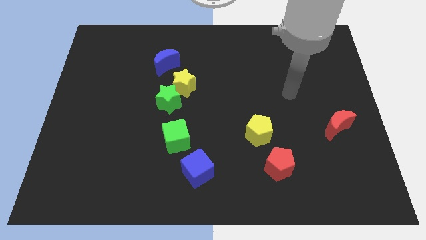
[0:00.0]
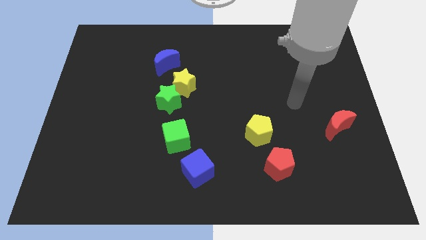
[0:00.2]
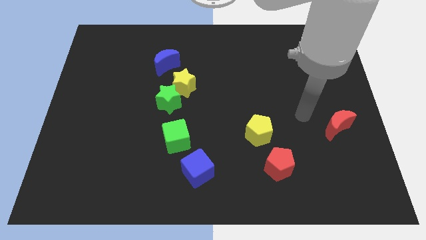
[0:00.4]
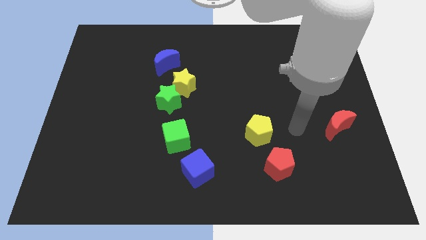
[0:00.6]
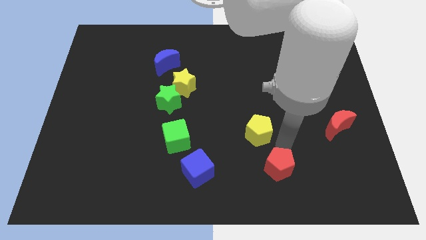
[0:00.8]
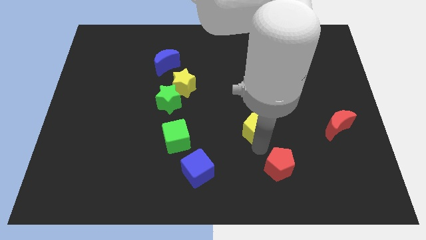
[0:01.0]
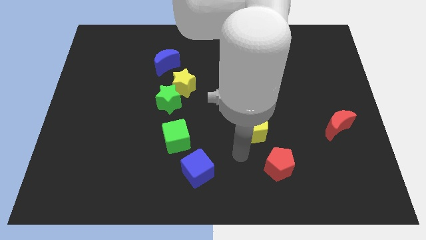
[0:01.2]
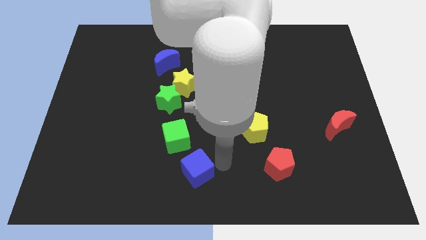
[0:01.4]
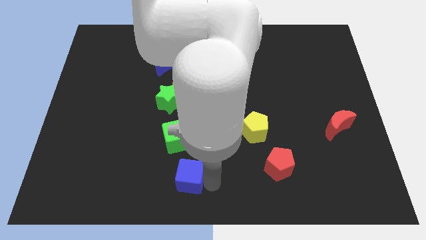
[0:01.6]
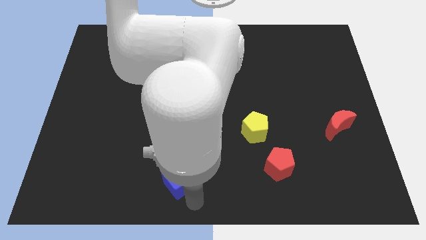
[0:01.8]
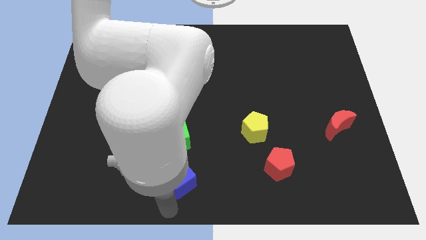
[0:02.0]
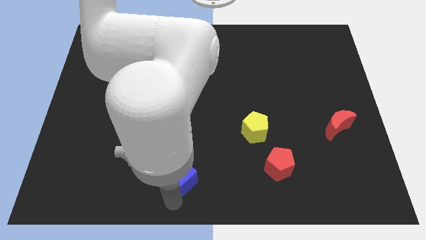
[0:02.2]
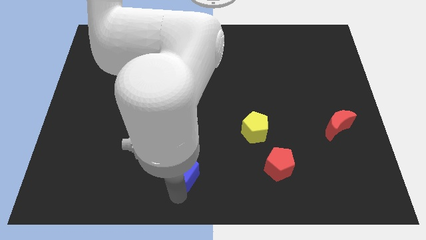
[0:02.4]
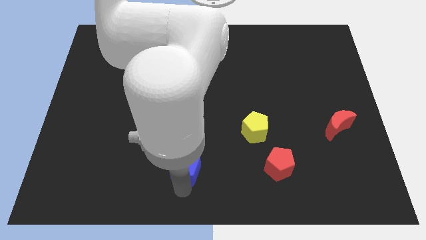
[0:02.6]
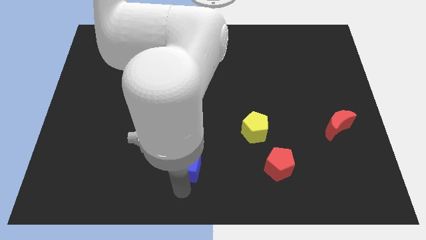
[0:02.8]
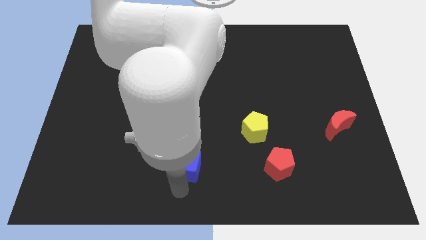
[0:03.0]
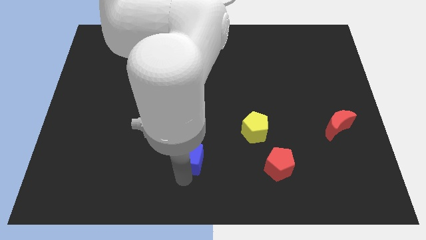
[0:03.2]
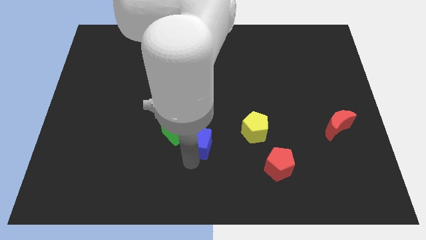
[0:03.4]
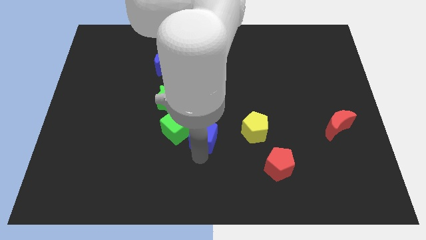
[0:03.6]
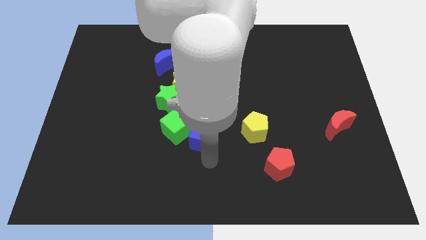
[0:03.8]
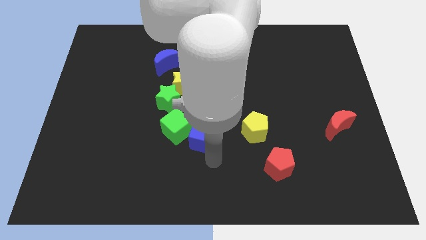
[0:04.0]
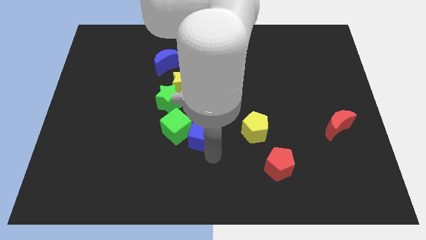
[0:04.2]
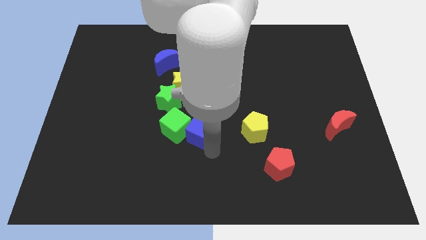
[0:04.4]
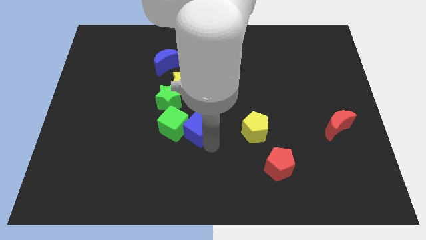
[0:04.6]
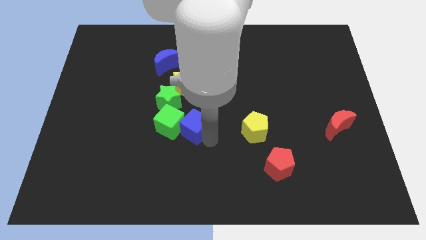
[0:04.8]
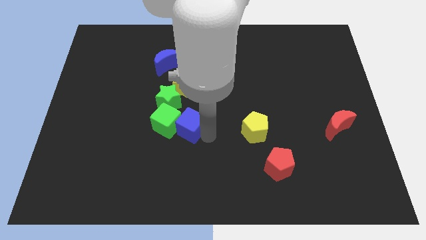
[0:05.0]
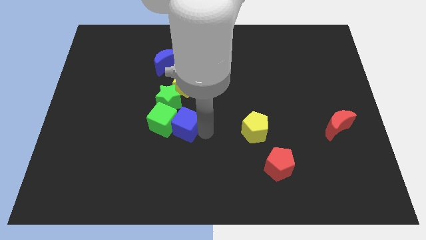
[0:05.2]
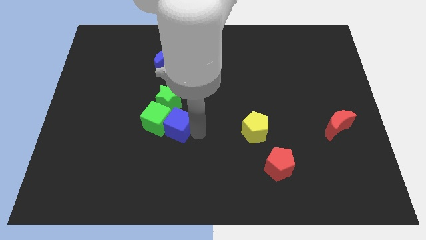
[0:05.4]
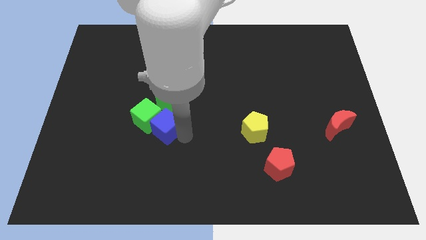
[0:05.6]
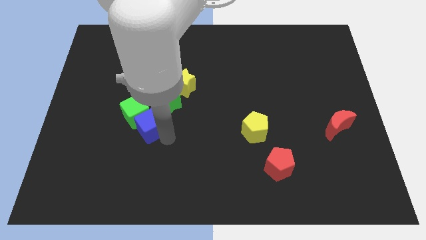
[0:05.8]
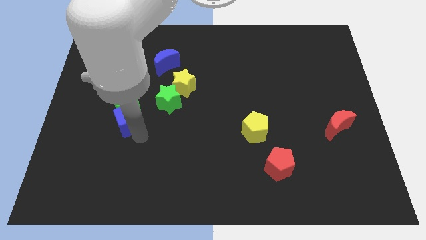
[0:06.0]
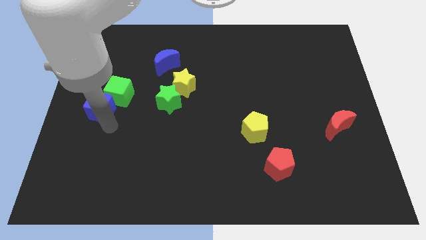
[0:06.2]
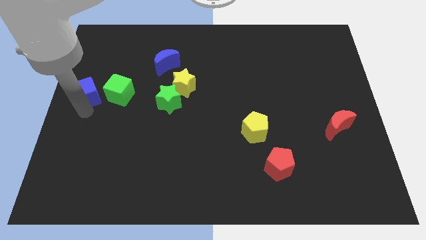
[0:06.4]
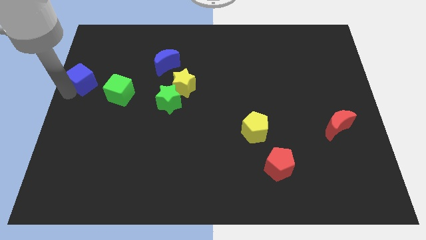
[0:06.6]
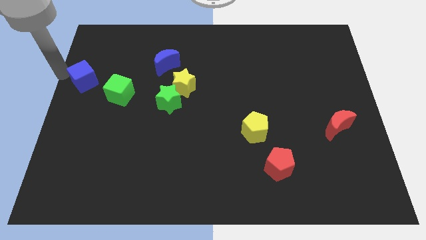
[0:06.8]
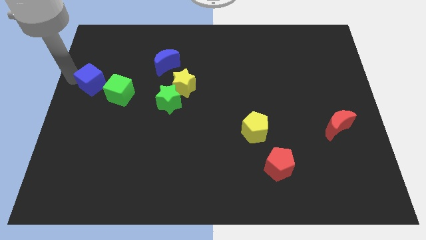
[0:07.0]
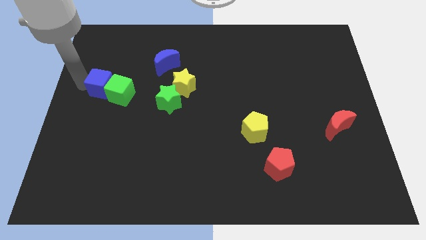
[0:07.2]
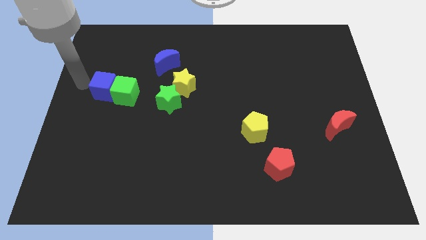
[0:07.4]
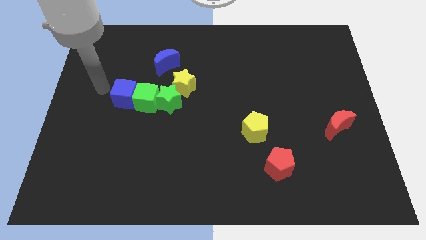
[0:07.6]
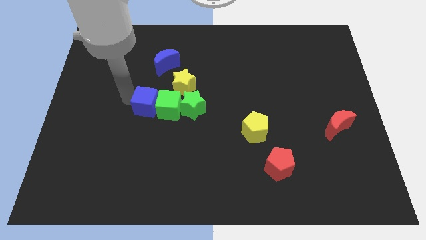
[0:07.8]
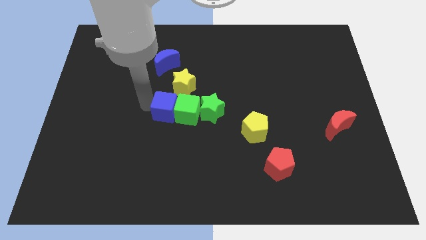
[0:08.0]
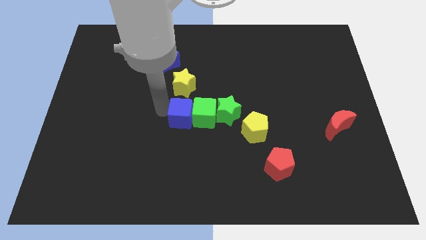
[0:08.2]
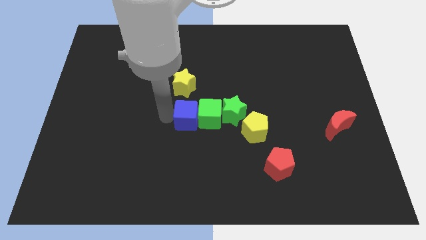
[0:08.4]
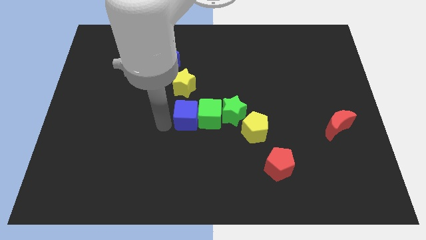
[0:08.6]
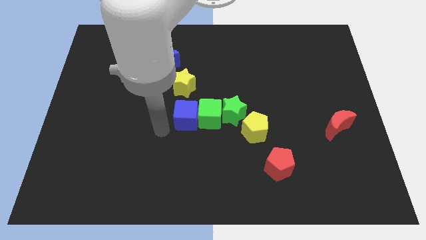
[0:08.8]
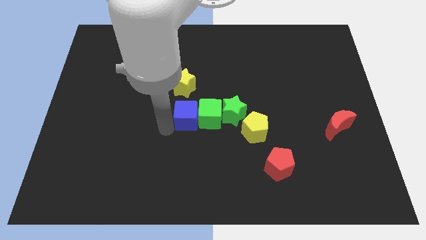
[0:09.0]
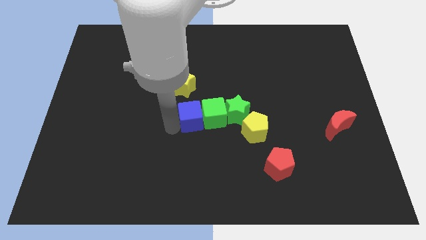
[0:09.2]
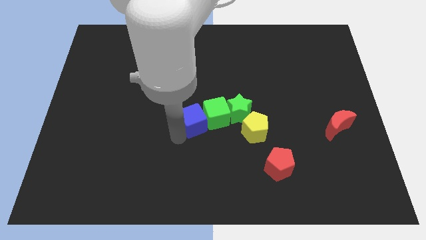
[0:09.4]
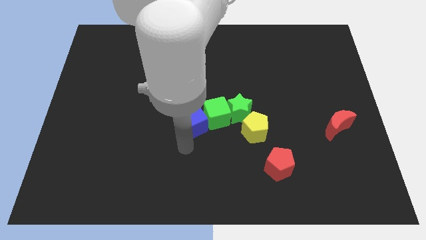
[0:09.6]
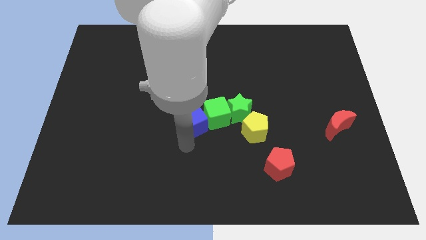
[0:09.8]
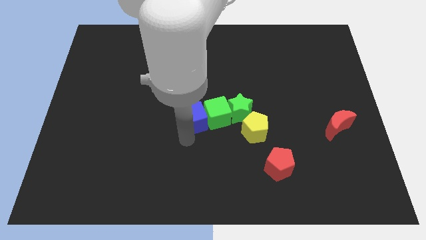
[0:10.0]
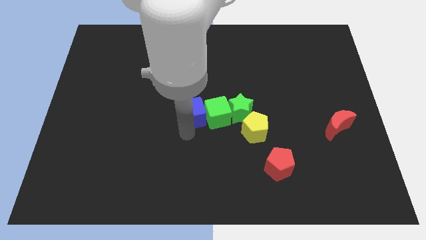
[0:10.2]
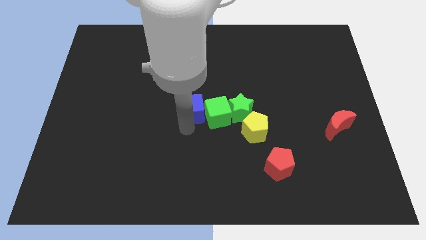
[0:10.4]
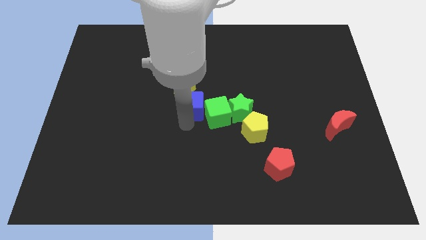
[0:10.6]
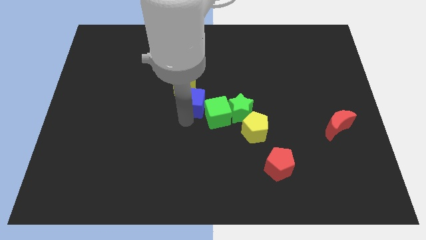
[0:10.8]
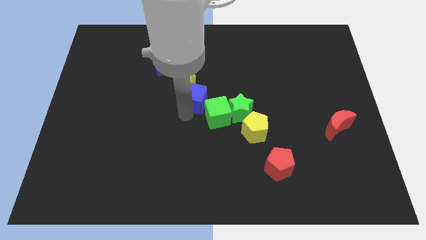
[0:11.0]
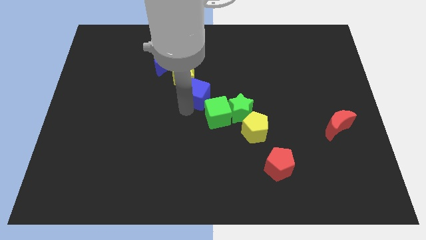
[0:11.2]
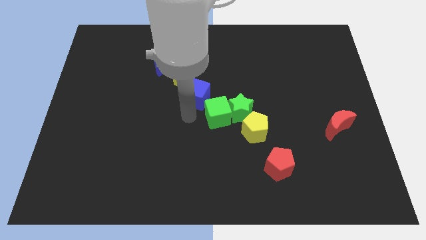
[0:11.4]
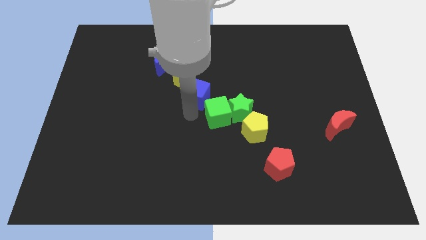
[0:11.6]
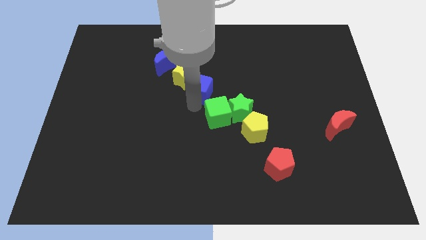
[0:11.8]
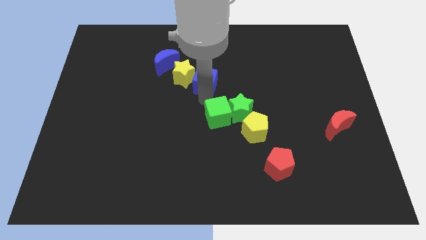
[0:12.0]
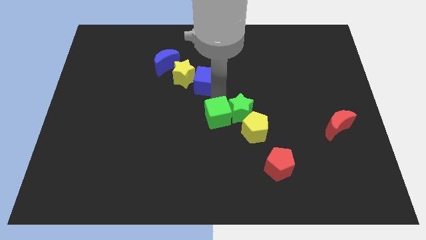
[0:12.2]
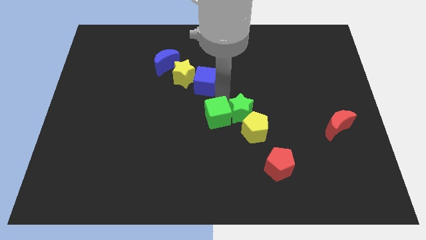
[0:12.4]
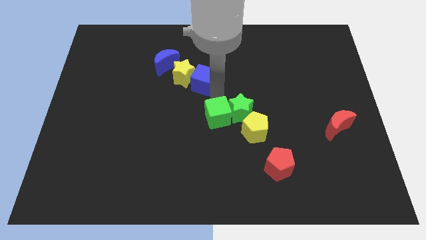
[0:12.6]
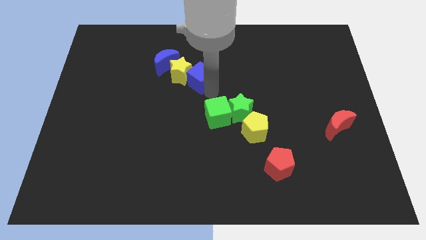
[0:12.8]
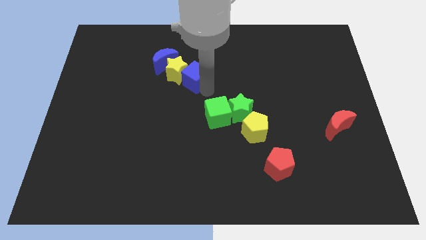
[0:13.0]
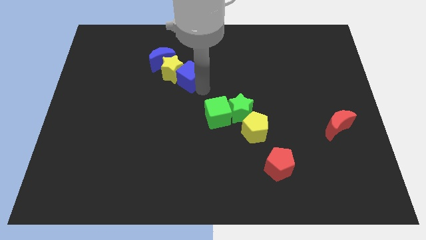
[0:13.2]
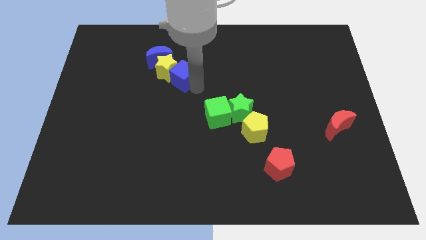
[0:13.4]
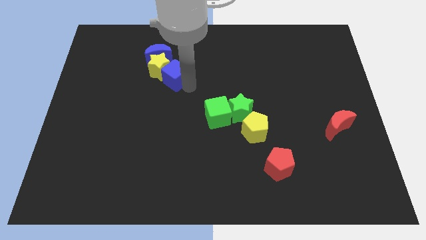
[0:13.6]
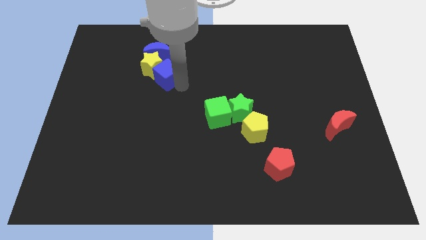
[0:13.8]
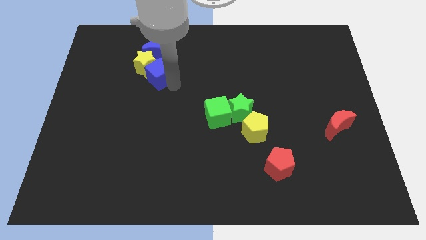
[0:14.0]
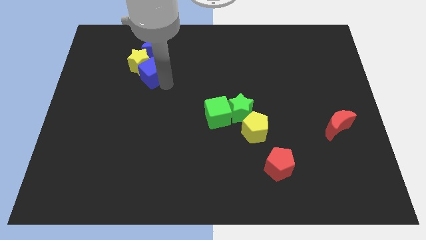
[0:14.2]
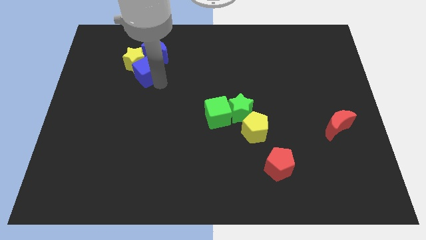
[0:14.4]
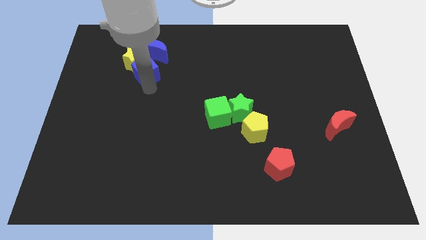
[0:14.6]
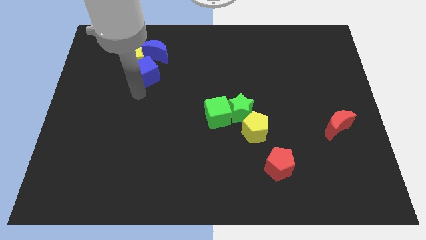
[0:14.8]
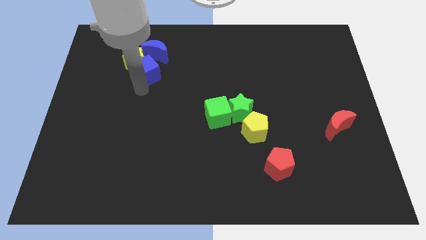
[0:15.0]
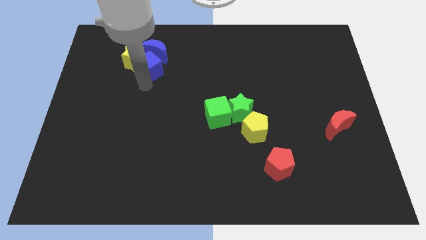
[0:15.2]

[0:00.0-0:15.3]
put the blue cube next to the blue moon
